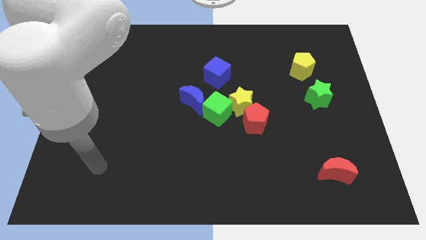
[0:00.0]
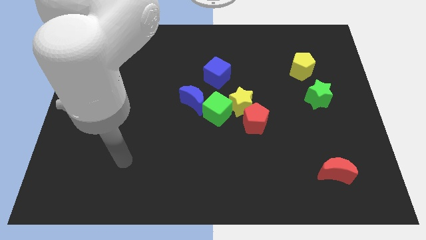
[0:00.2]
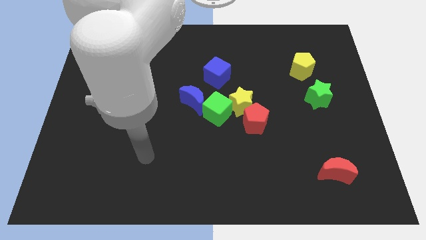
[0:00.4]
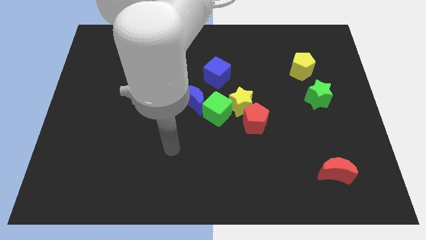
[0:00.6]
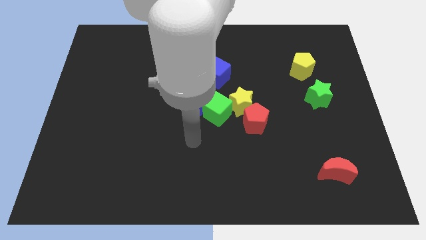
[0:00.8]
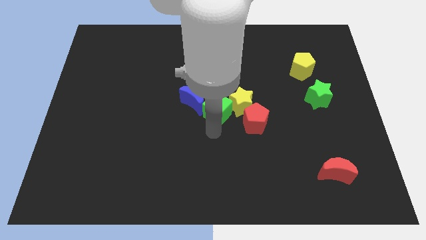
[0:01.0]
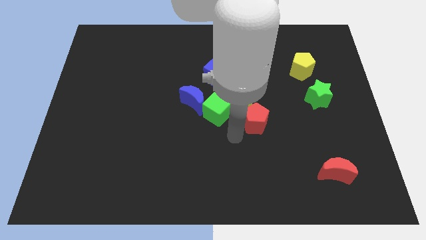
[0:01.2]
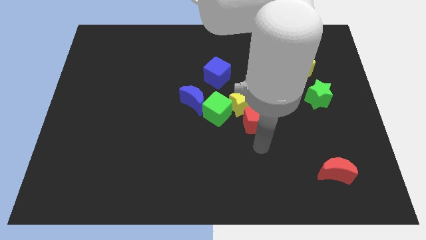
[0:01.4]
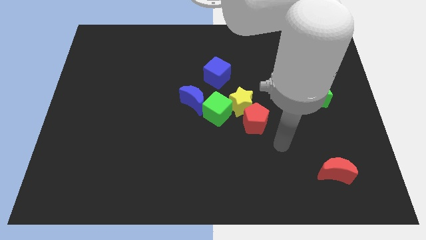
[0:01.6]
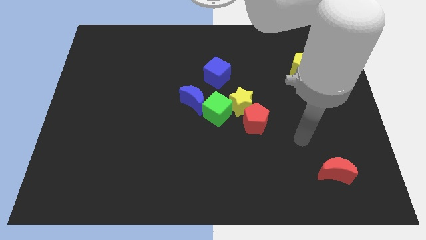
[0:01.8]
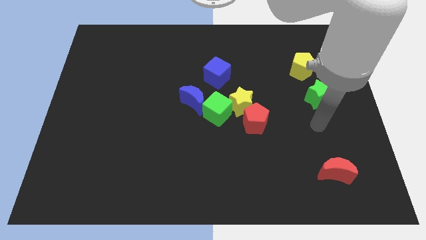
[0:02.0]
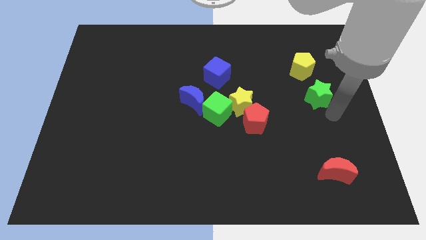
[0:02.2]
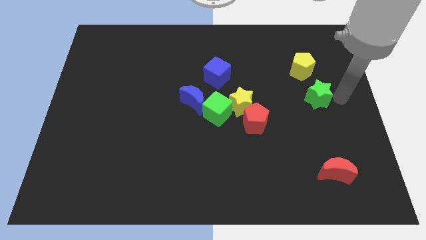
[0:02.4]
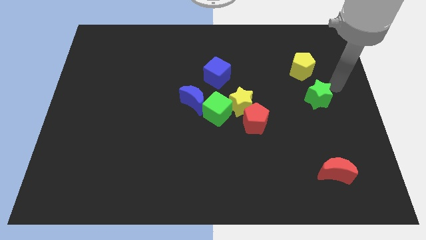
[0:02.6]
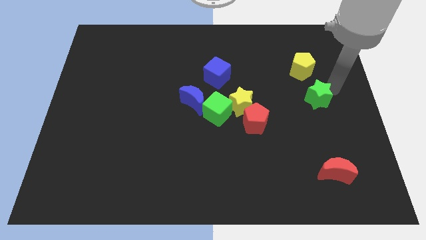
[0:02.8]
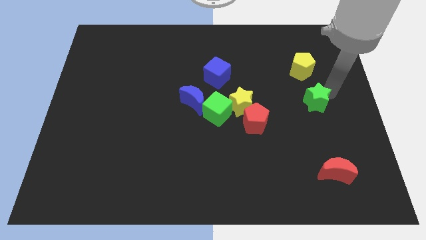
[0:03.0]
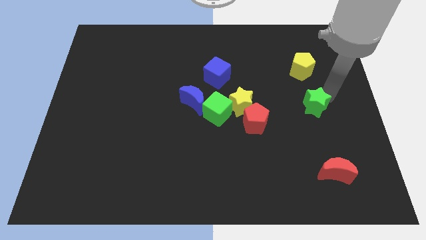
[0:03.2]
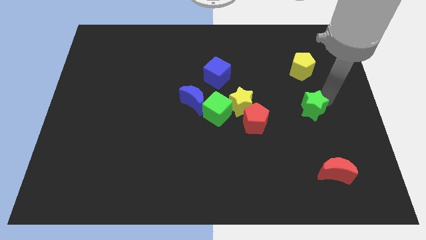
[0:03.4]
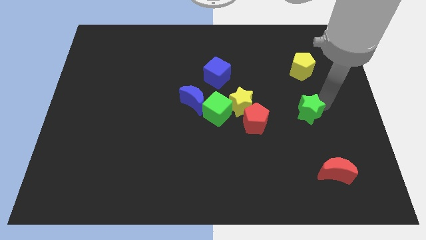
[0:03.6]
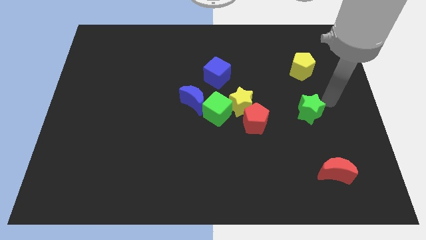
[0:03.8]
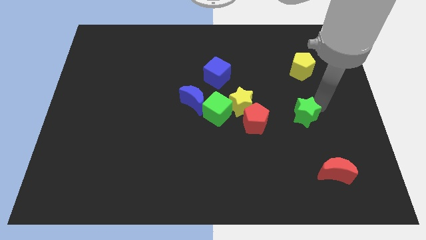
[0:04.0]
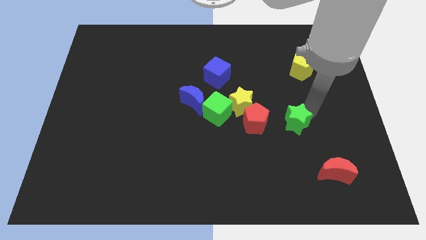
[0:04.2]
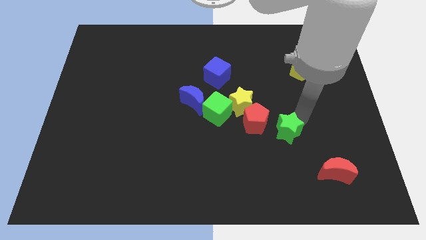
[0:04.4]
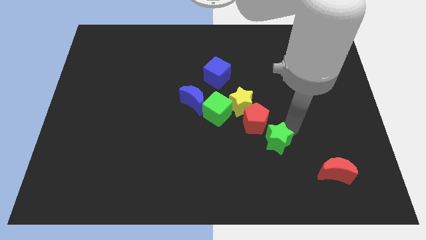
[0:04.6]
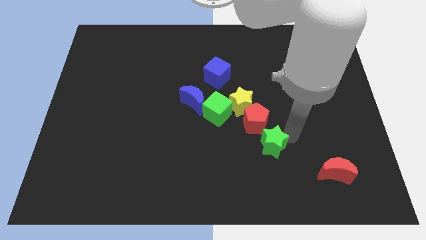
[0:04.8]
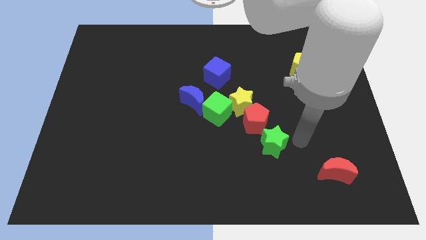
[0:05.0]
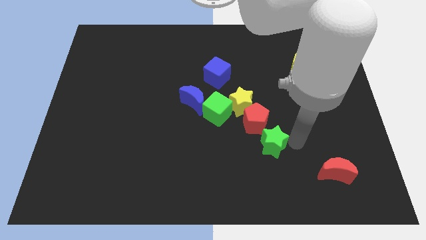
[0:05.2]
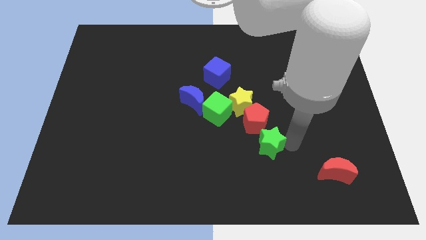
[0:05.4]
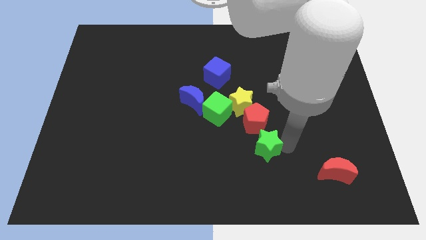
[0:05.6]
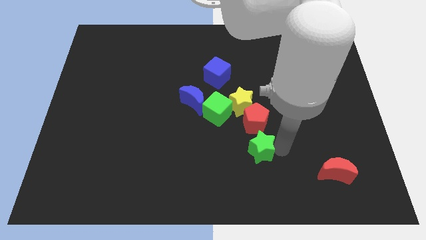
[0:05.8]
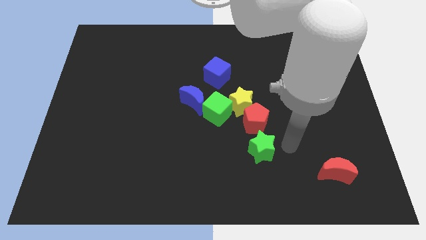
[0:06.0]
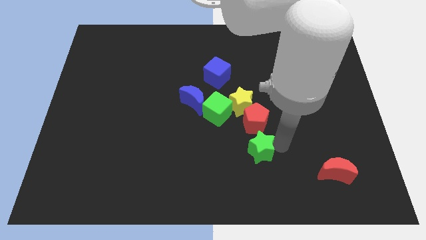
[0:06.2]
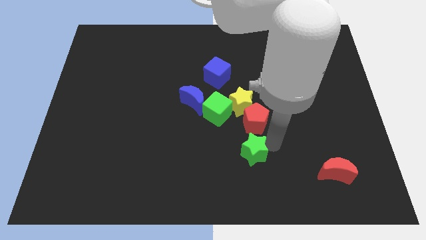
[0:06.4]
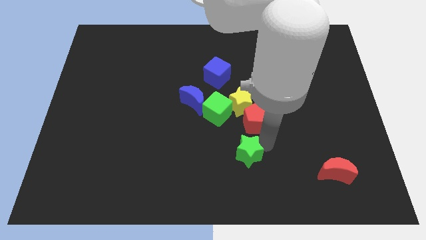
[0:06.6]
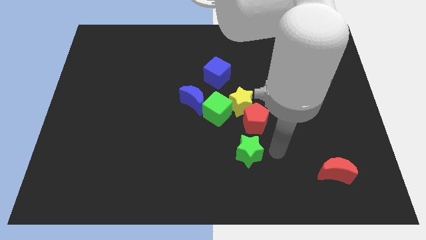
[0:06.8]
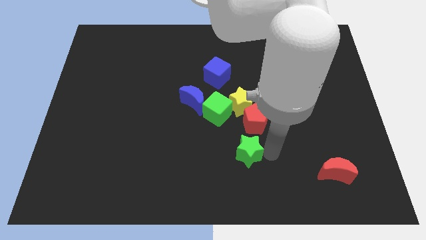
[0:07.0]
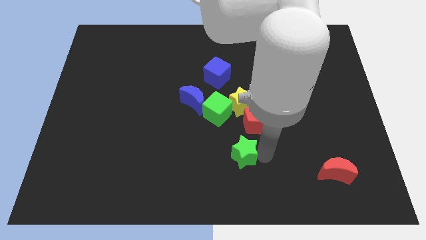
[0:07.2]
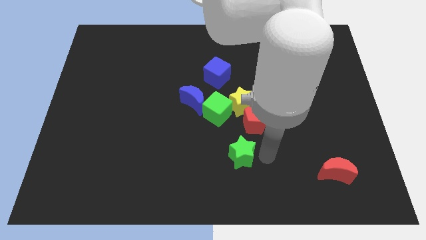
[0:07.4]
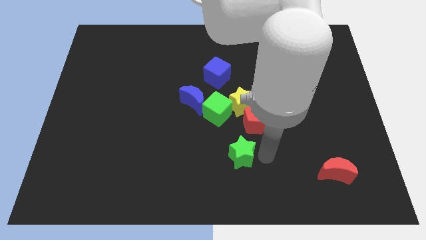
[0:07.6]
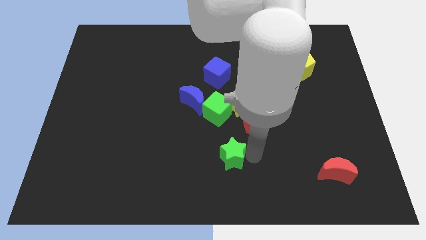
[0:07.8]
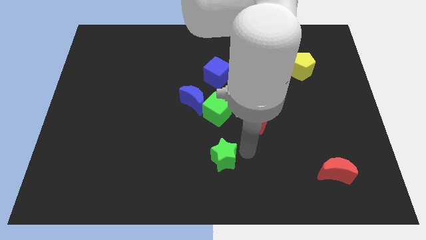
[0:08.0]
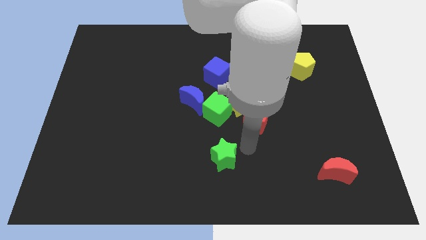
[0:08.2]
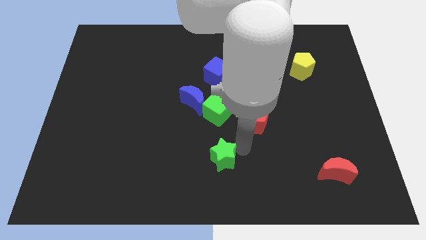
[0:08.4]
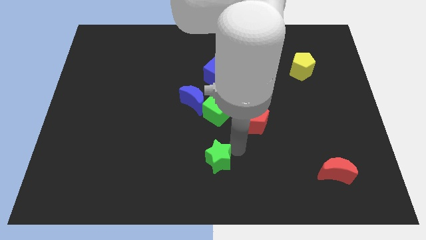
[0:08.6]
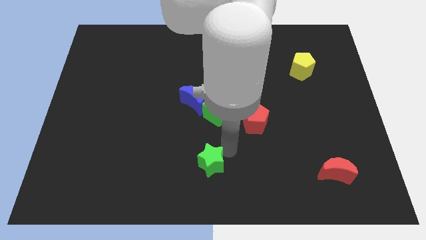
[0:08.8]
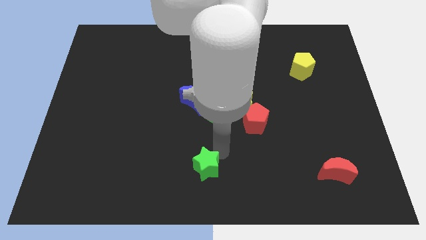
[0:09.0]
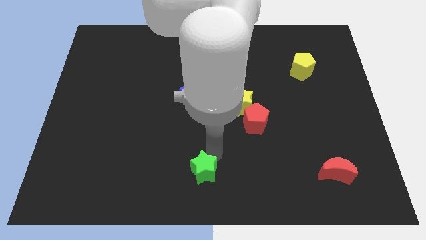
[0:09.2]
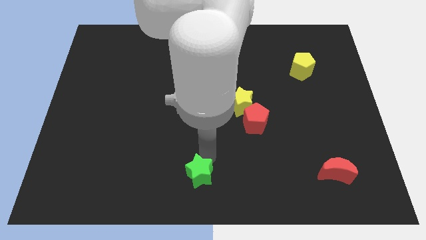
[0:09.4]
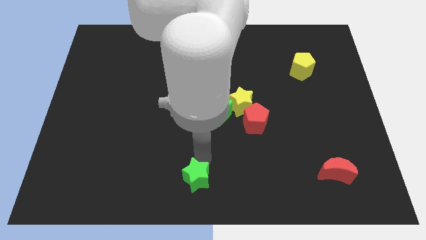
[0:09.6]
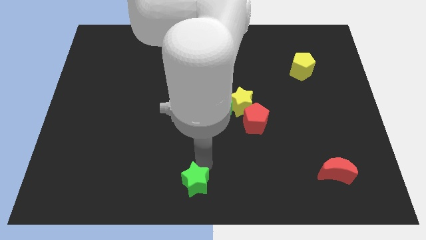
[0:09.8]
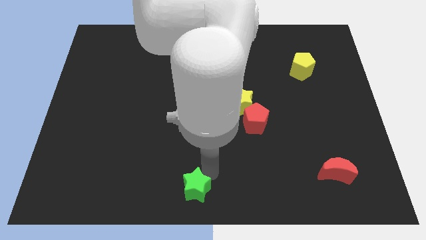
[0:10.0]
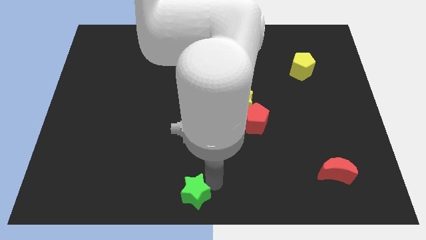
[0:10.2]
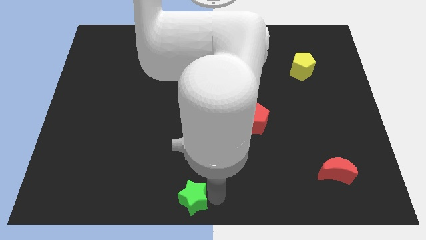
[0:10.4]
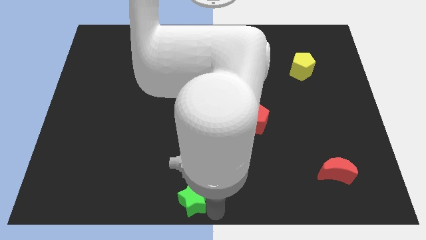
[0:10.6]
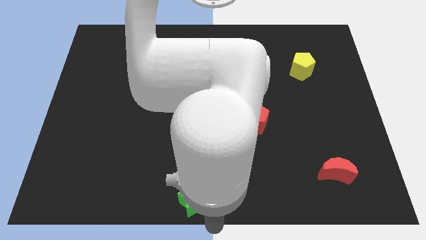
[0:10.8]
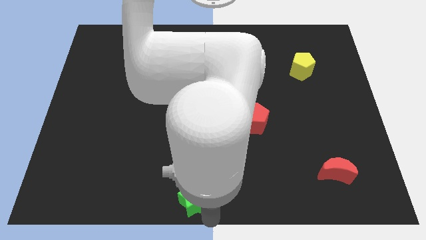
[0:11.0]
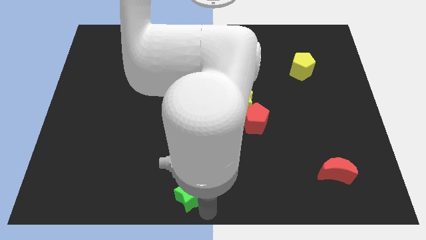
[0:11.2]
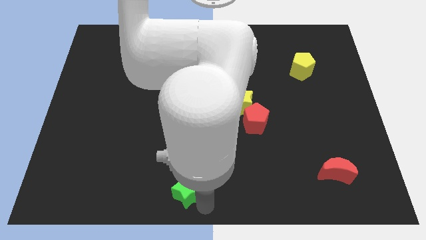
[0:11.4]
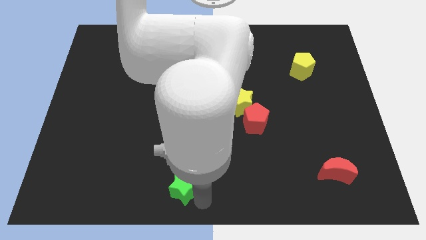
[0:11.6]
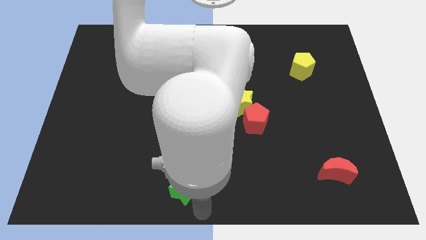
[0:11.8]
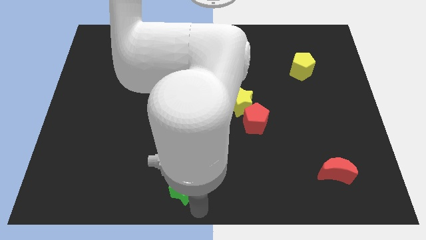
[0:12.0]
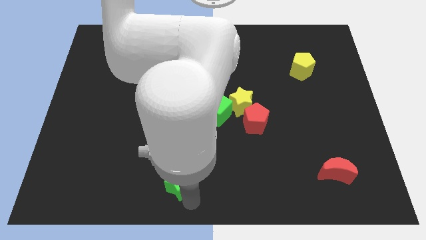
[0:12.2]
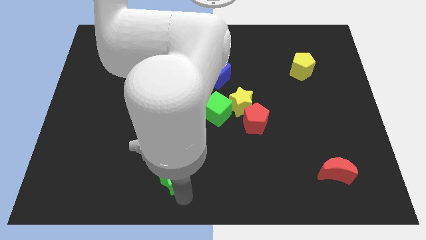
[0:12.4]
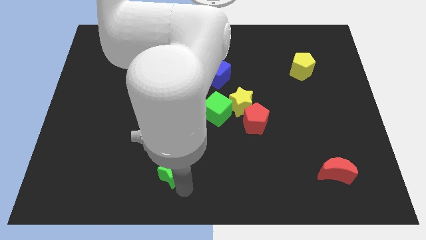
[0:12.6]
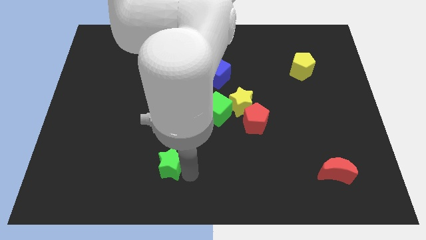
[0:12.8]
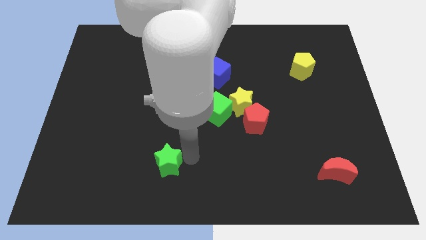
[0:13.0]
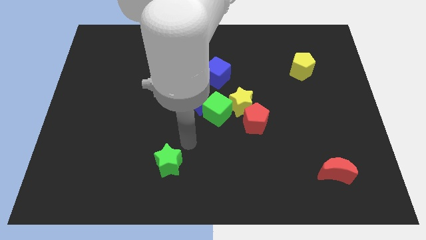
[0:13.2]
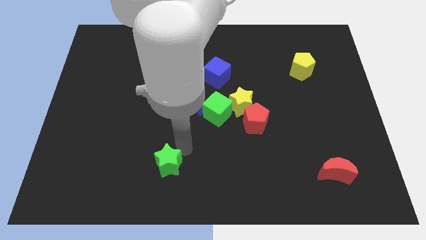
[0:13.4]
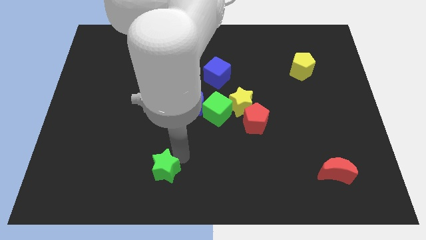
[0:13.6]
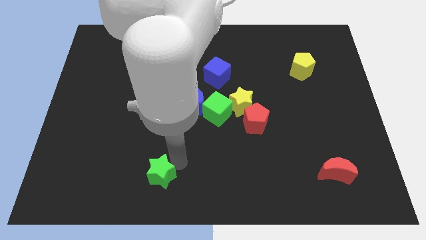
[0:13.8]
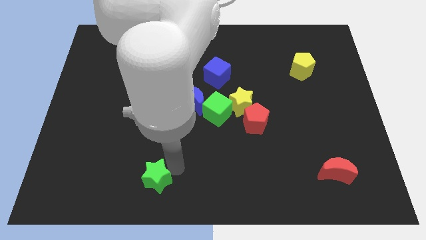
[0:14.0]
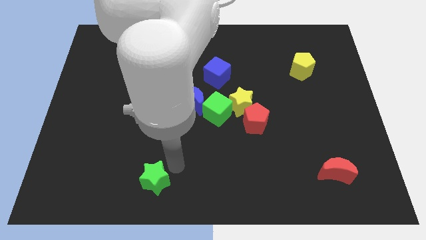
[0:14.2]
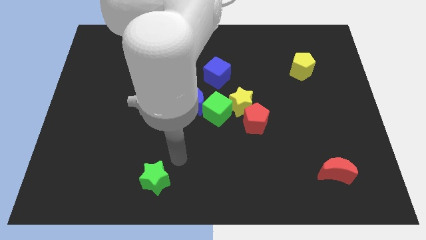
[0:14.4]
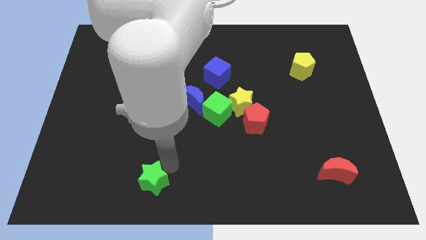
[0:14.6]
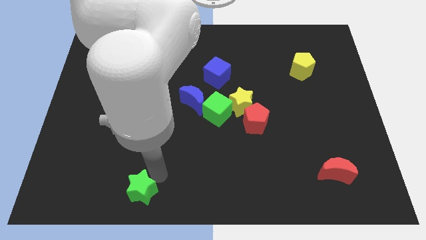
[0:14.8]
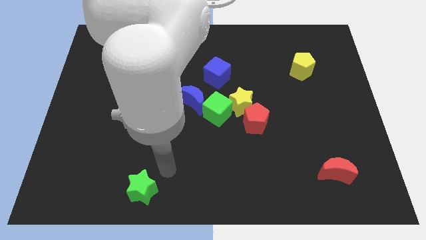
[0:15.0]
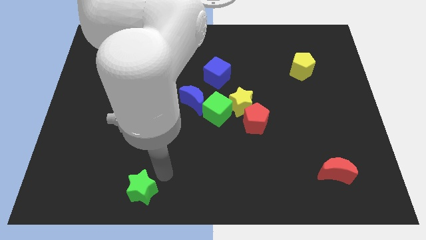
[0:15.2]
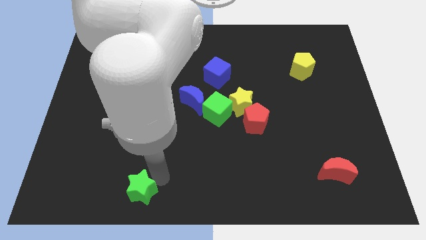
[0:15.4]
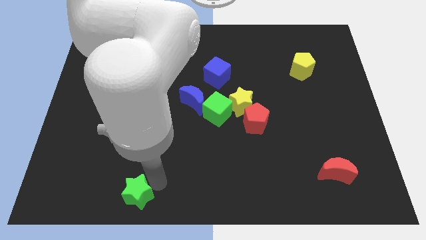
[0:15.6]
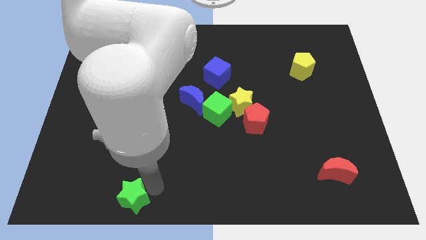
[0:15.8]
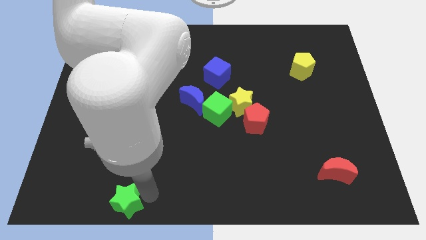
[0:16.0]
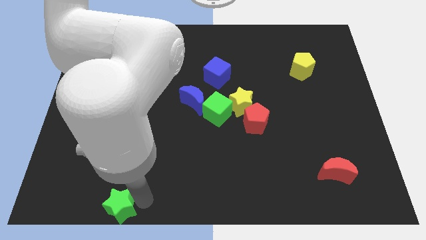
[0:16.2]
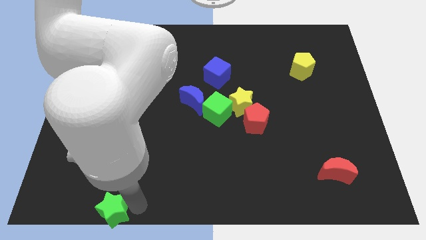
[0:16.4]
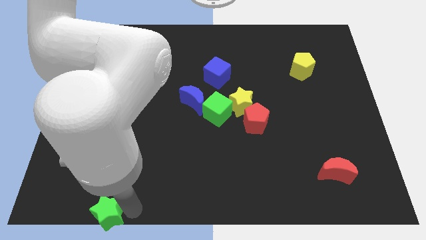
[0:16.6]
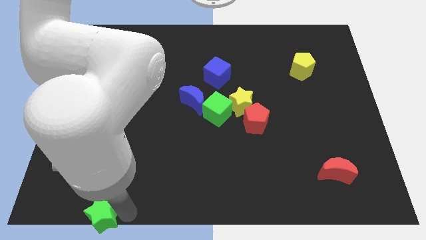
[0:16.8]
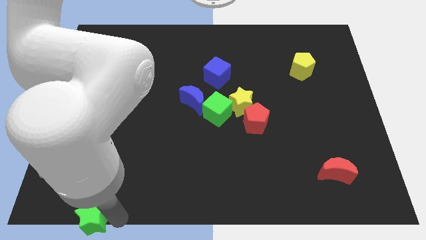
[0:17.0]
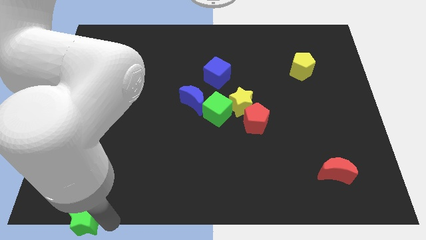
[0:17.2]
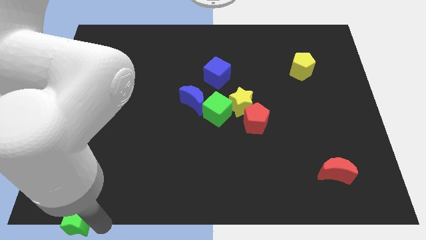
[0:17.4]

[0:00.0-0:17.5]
slide the green star to the lower left corner
